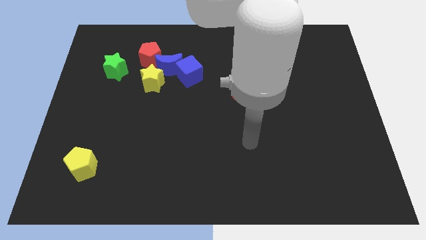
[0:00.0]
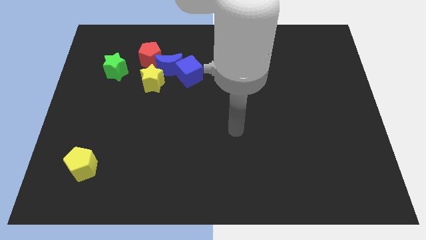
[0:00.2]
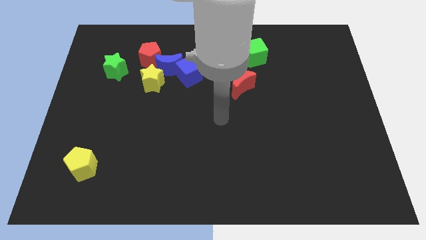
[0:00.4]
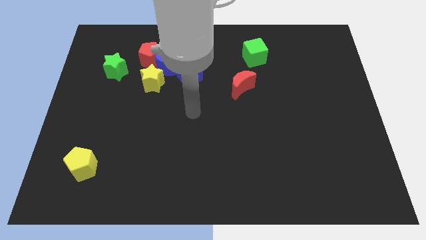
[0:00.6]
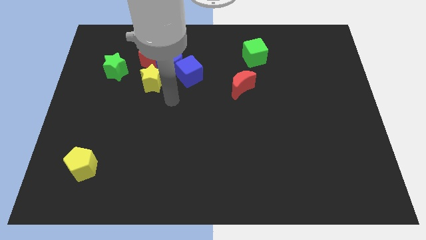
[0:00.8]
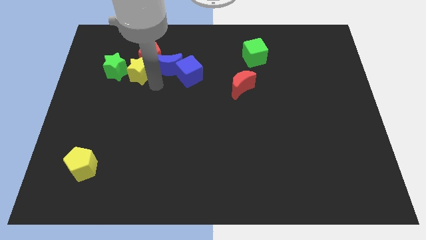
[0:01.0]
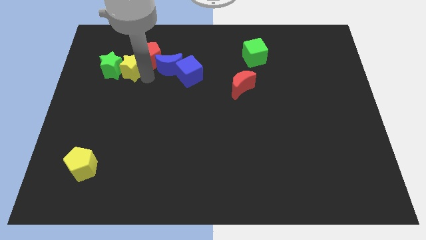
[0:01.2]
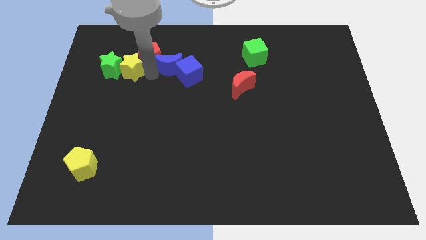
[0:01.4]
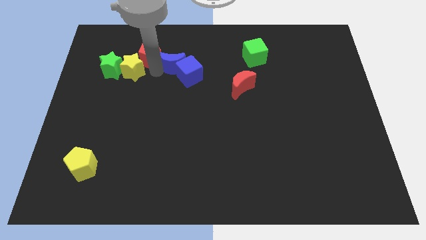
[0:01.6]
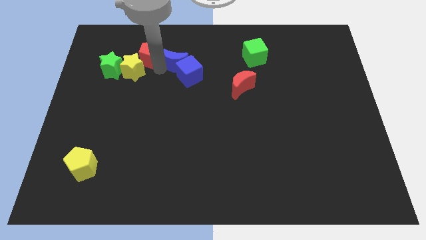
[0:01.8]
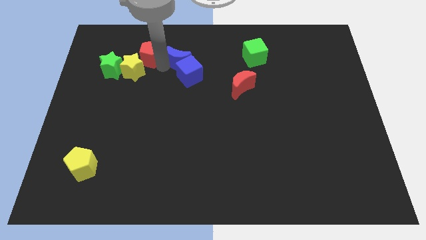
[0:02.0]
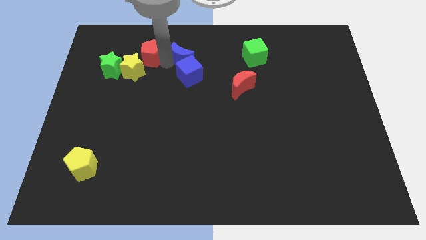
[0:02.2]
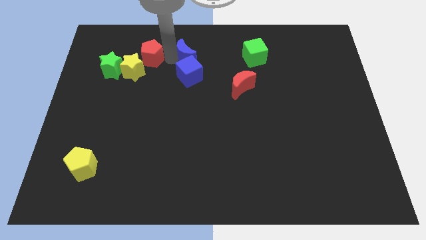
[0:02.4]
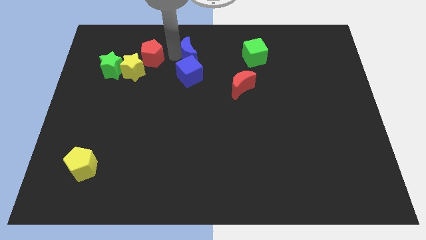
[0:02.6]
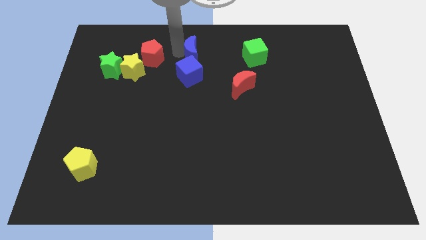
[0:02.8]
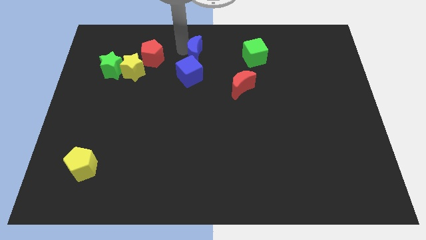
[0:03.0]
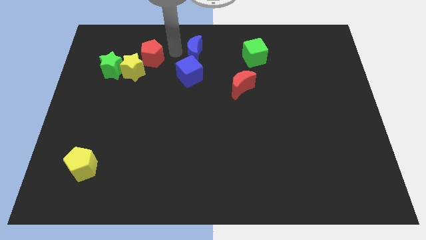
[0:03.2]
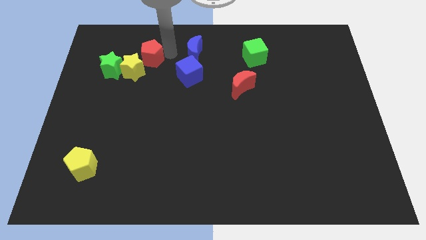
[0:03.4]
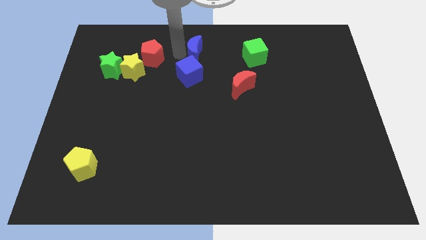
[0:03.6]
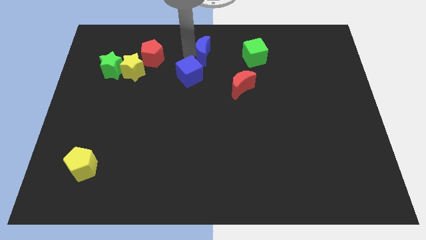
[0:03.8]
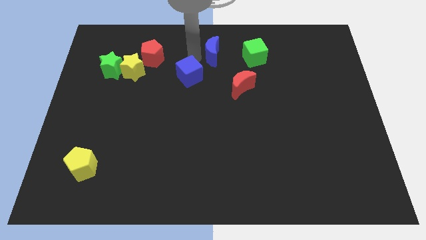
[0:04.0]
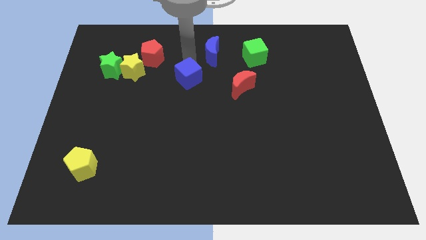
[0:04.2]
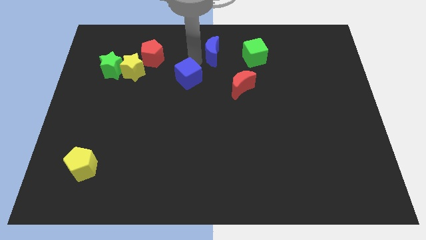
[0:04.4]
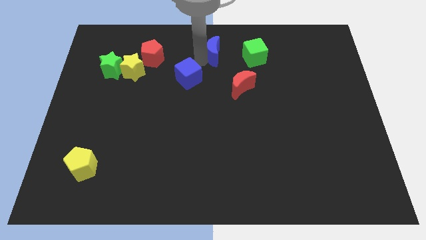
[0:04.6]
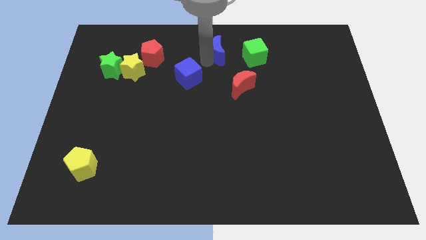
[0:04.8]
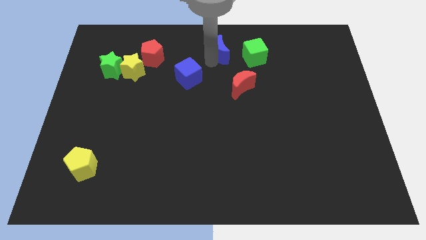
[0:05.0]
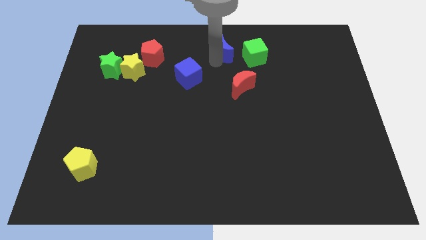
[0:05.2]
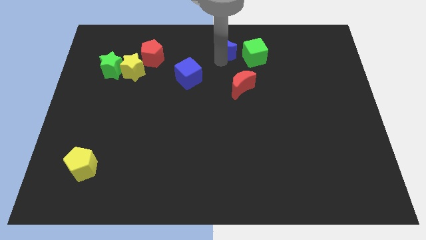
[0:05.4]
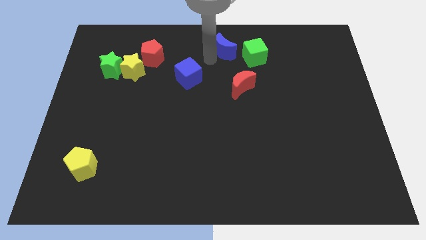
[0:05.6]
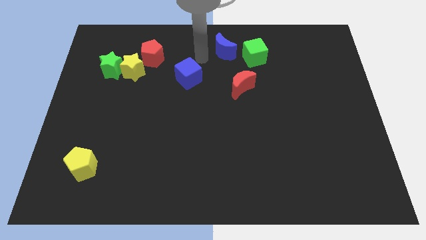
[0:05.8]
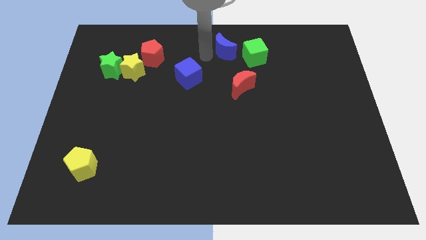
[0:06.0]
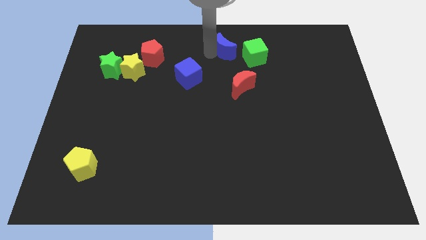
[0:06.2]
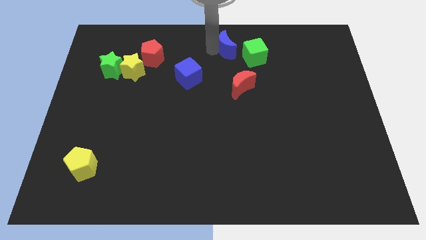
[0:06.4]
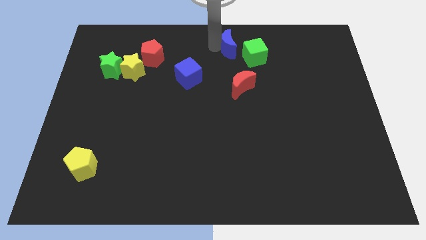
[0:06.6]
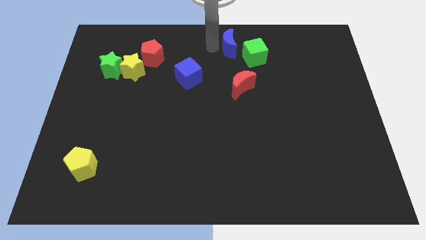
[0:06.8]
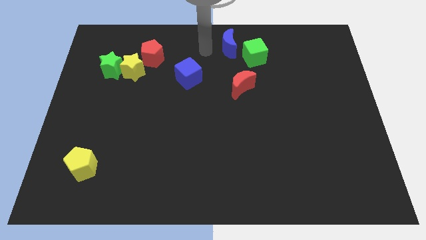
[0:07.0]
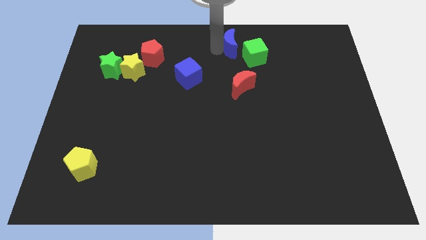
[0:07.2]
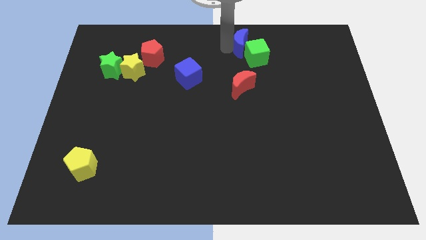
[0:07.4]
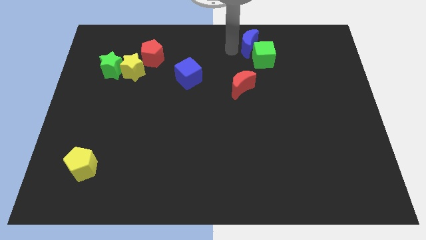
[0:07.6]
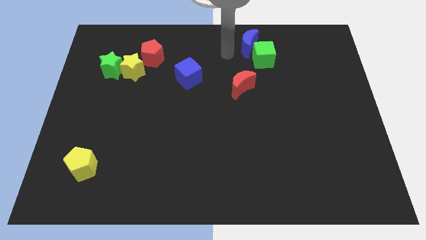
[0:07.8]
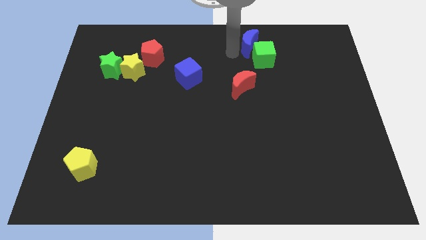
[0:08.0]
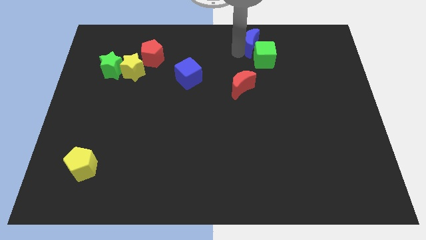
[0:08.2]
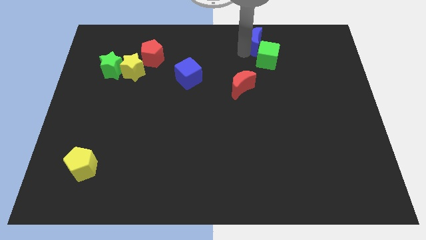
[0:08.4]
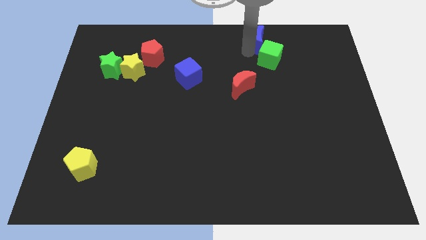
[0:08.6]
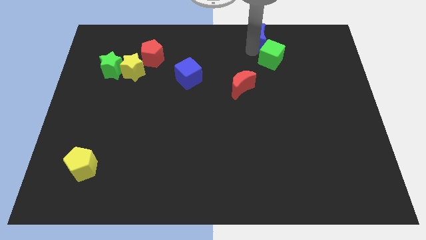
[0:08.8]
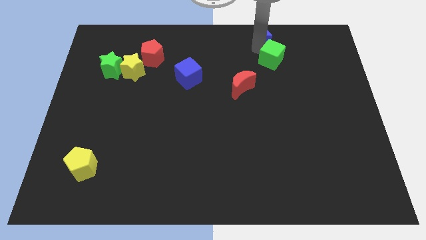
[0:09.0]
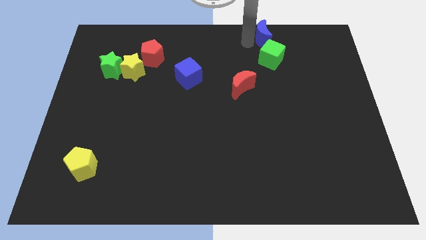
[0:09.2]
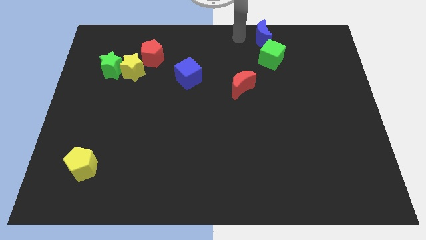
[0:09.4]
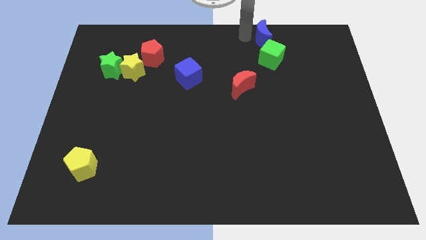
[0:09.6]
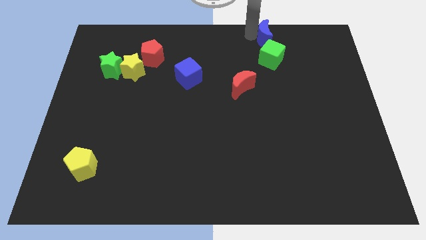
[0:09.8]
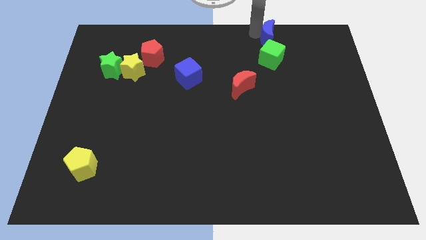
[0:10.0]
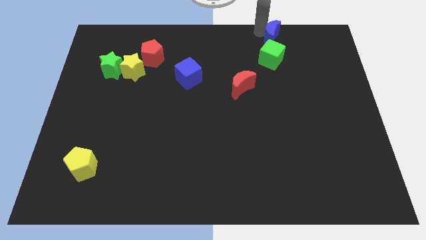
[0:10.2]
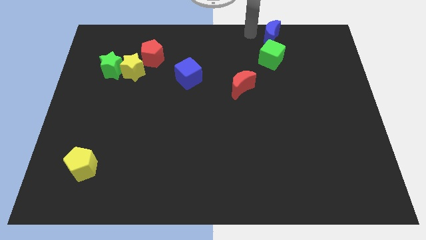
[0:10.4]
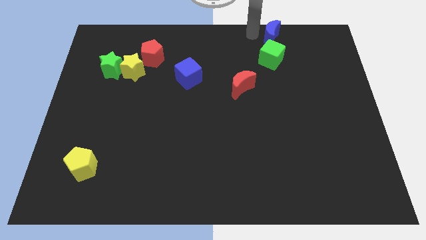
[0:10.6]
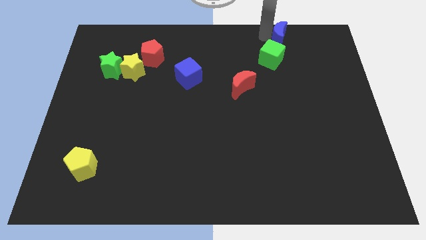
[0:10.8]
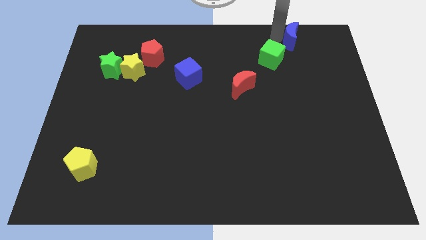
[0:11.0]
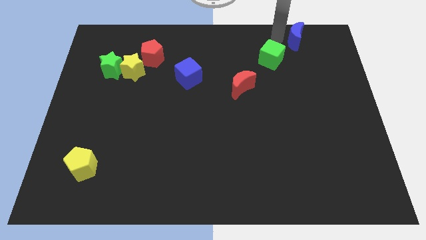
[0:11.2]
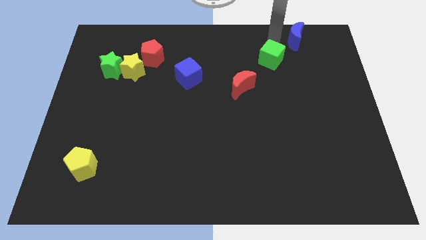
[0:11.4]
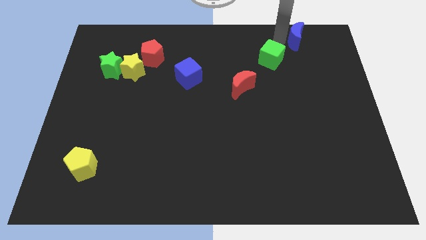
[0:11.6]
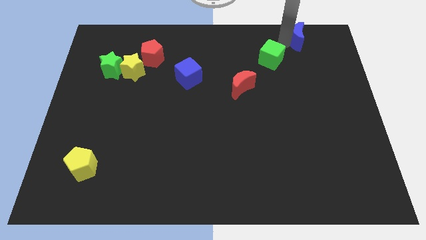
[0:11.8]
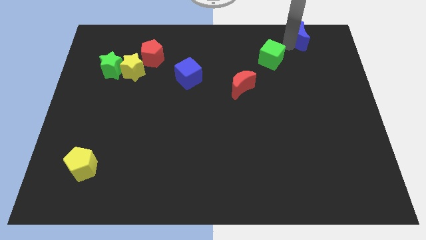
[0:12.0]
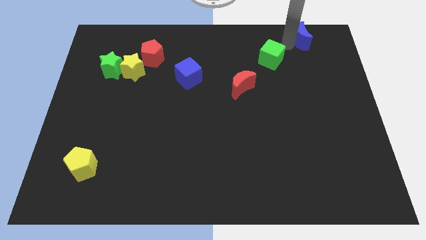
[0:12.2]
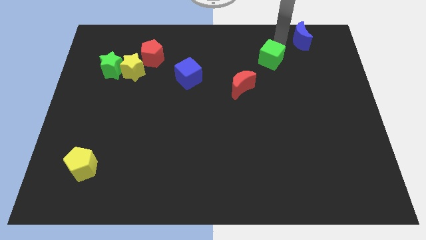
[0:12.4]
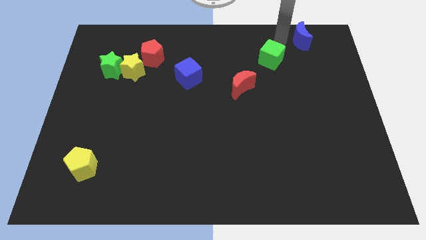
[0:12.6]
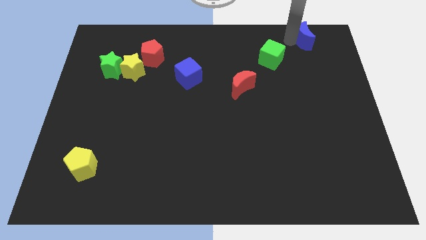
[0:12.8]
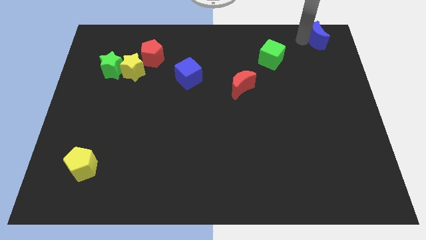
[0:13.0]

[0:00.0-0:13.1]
slide the blue moon to the top right
